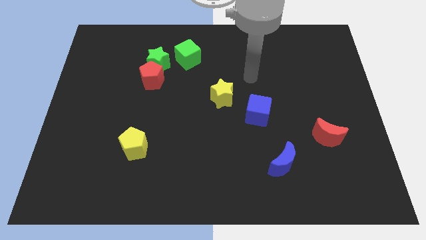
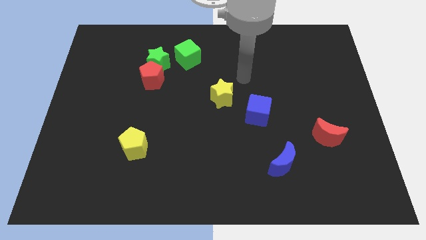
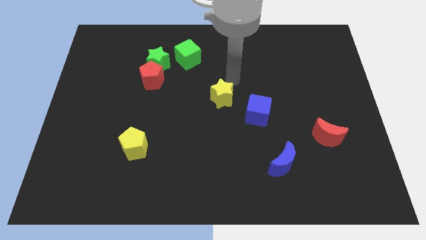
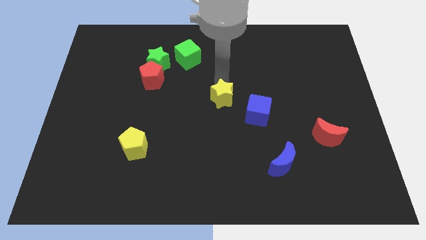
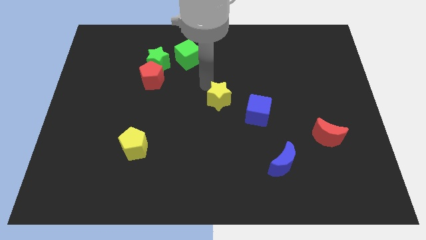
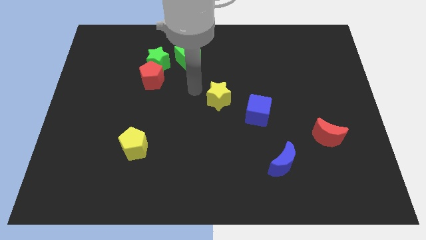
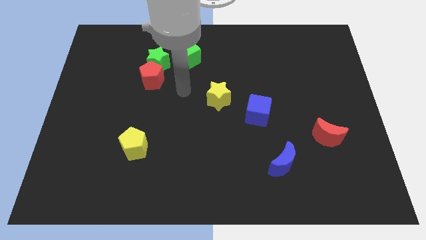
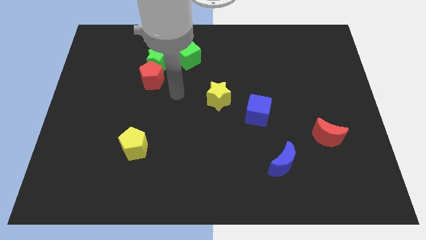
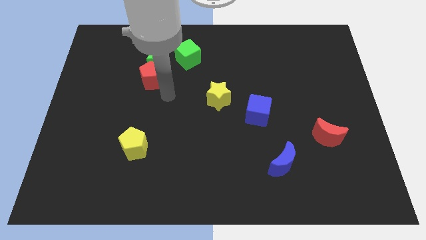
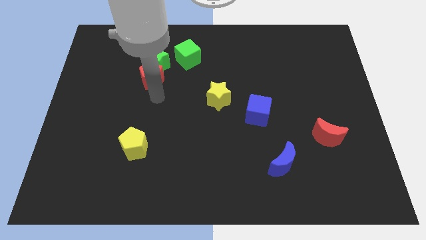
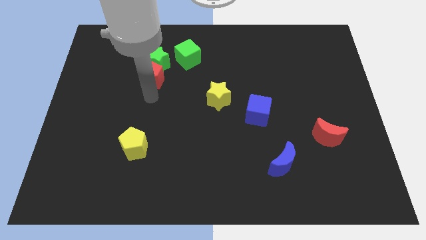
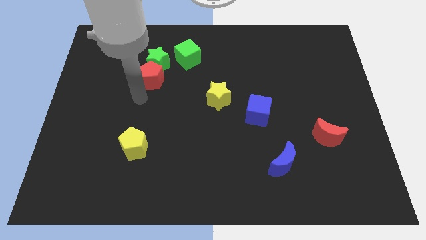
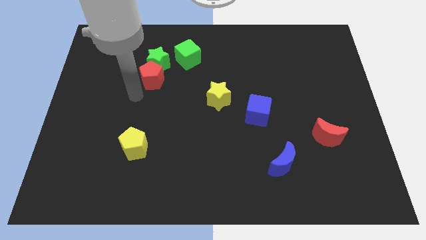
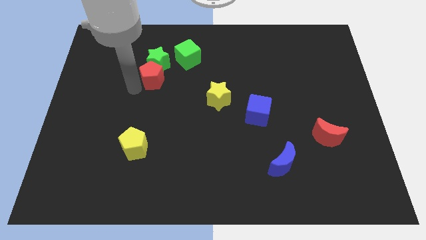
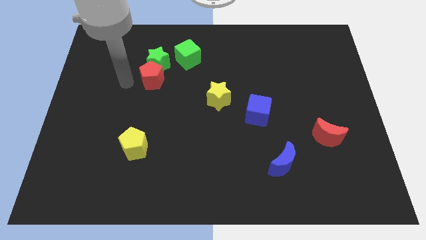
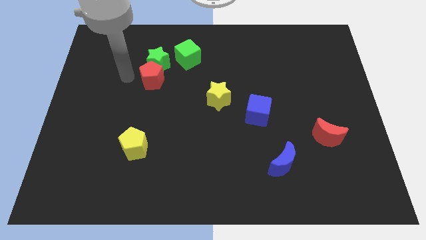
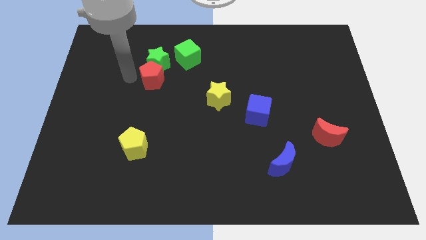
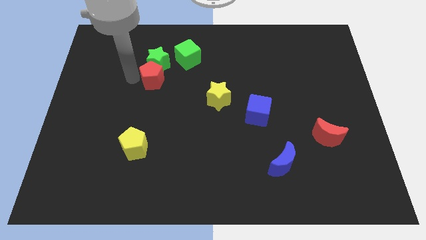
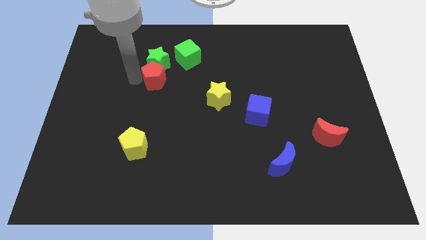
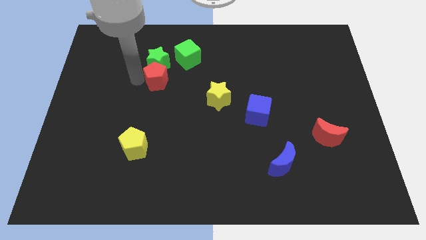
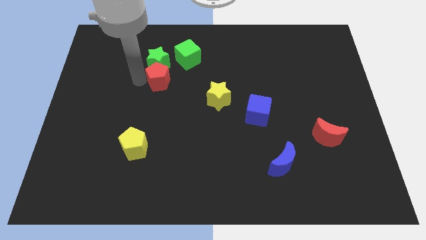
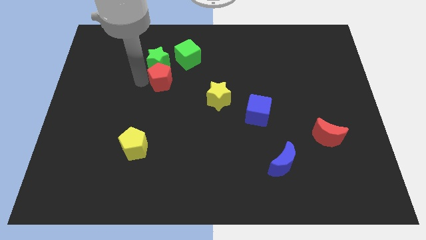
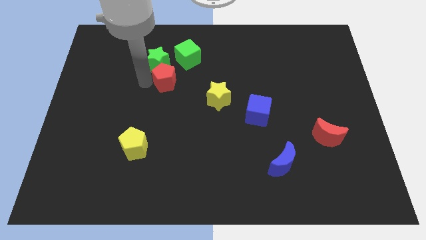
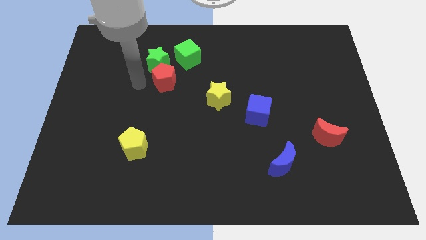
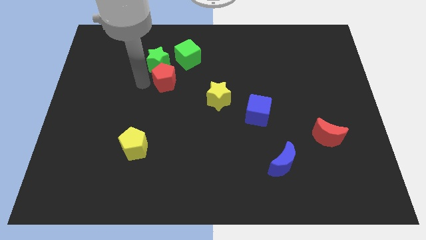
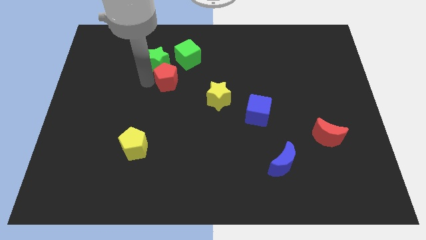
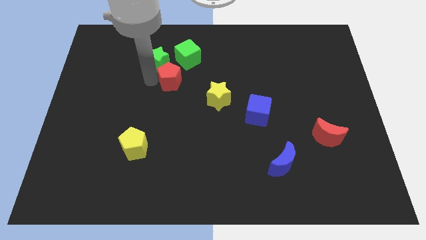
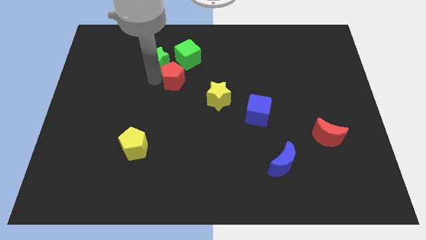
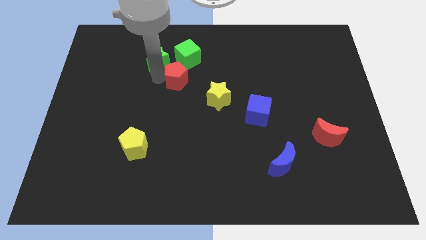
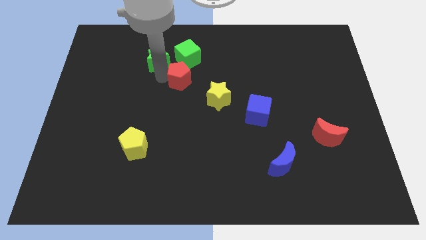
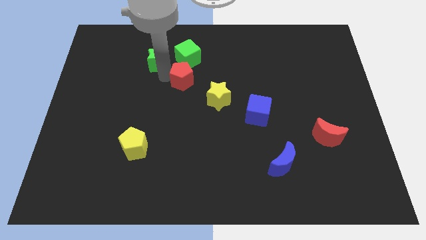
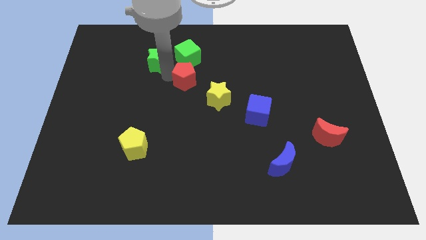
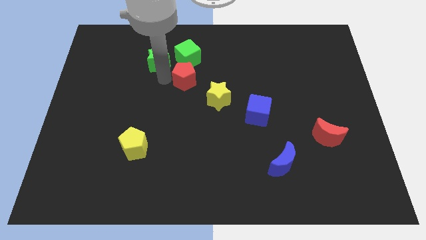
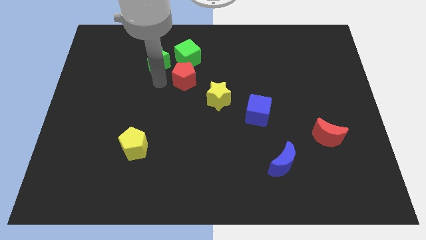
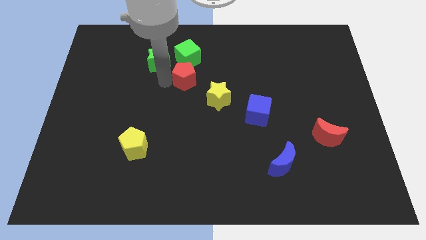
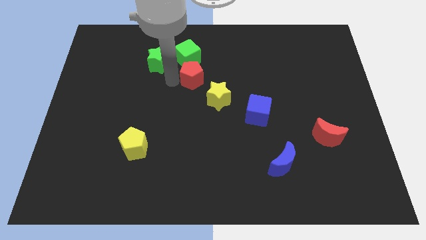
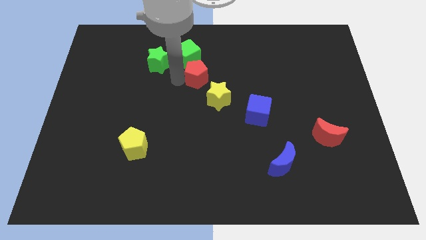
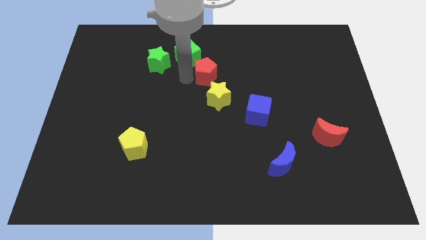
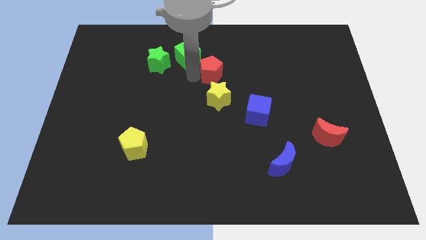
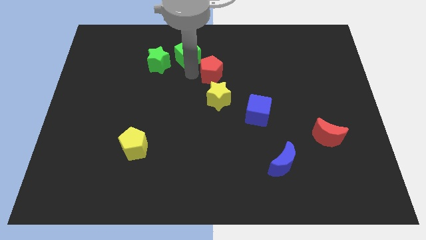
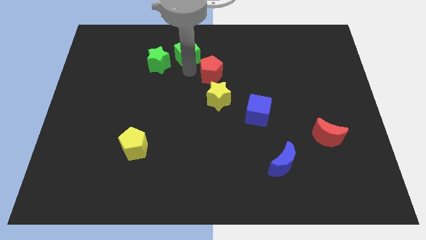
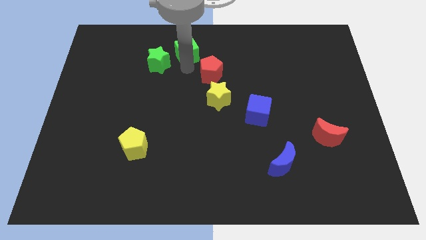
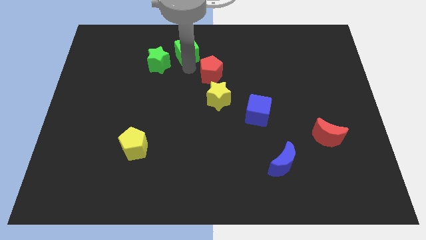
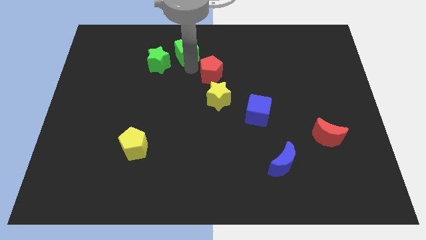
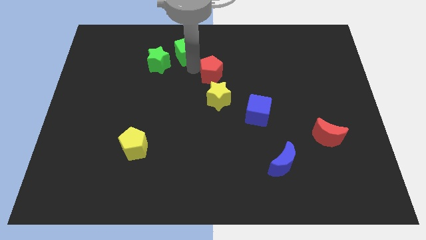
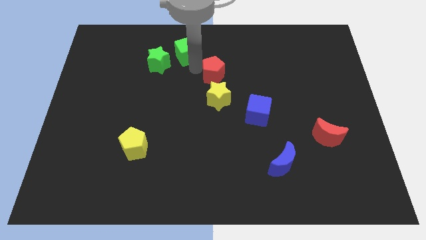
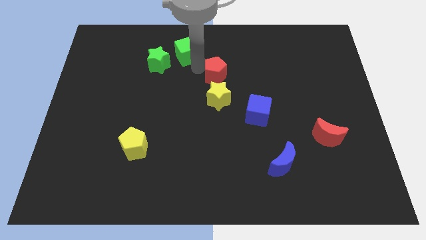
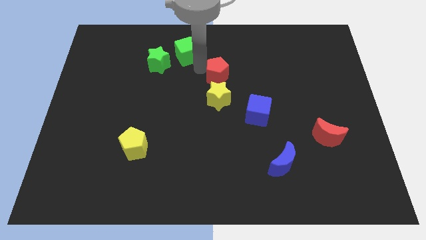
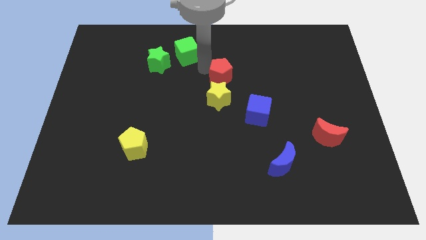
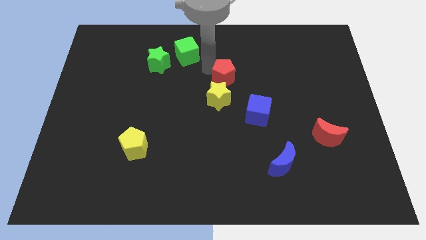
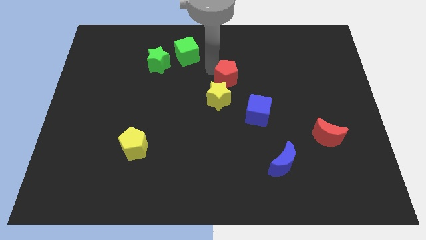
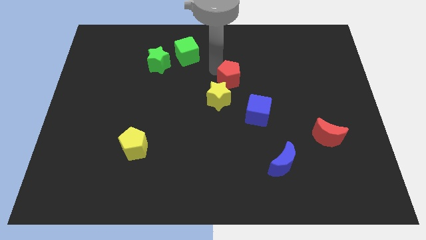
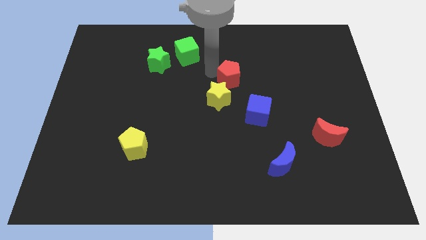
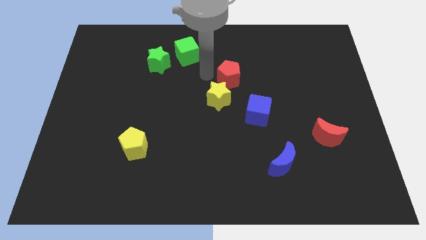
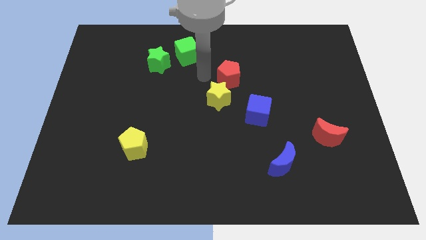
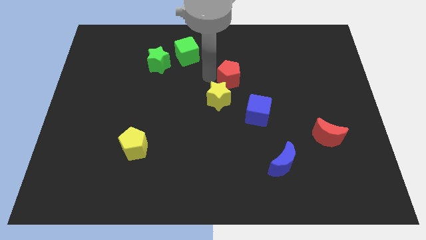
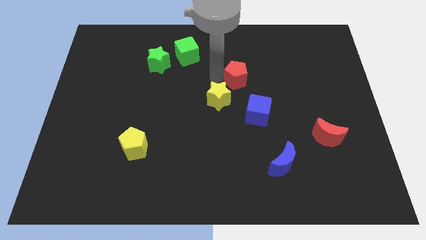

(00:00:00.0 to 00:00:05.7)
move the red pentagon to the right

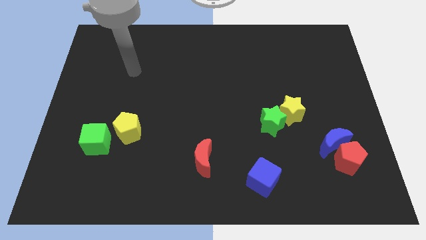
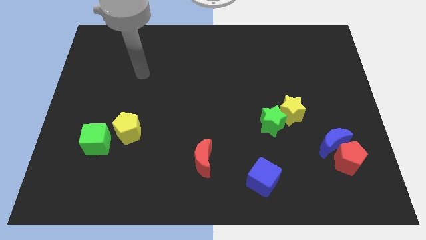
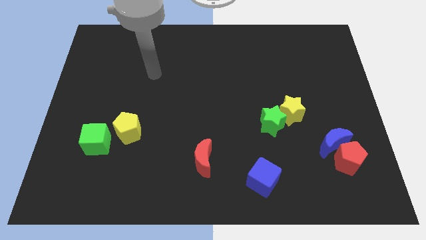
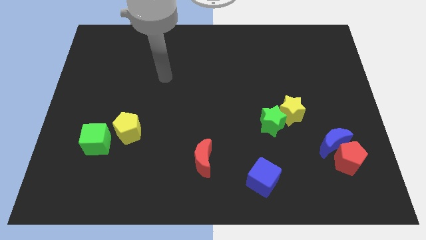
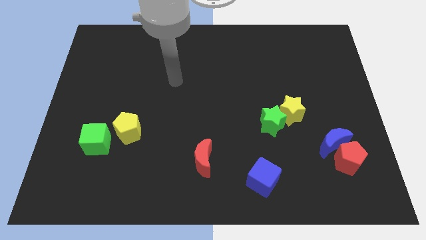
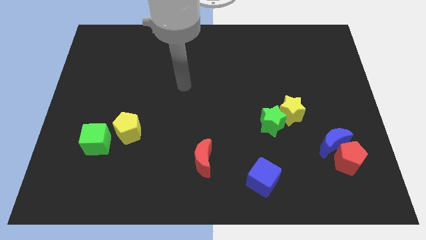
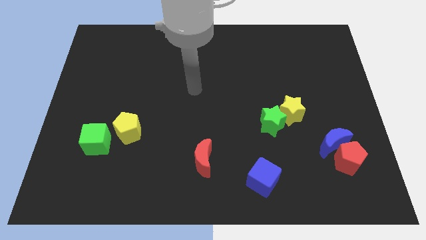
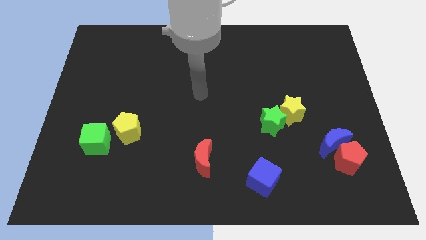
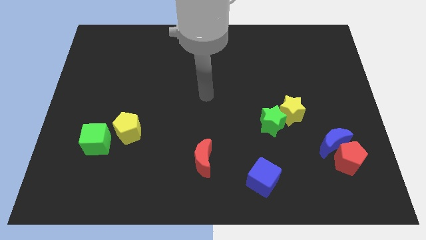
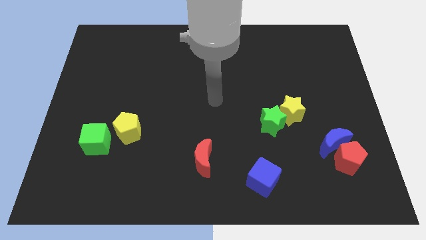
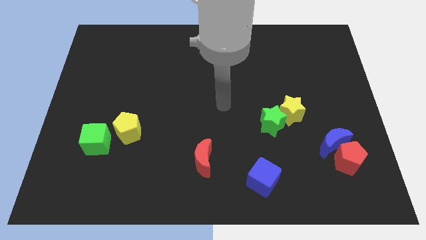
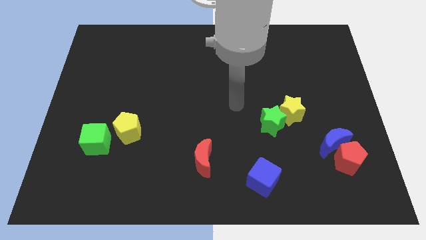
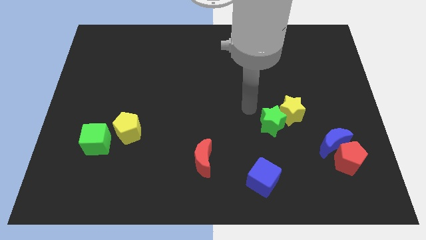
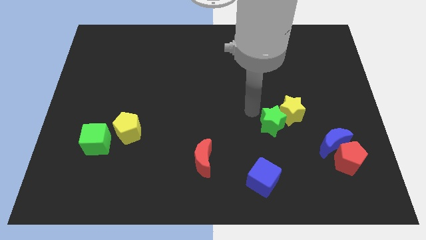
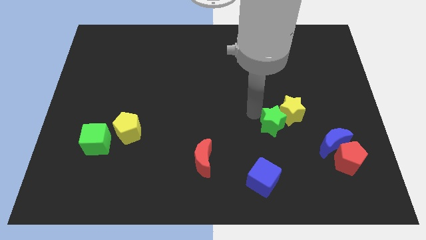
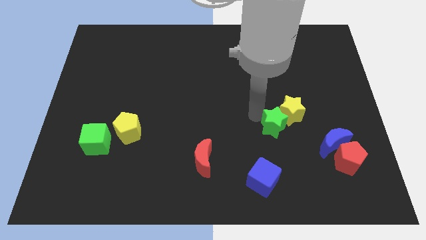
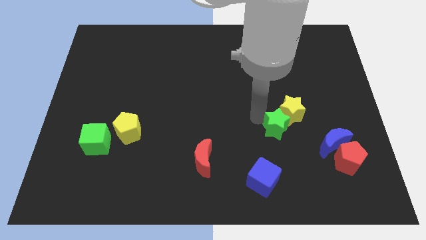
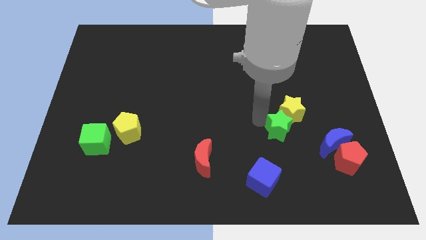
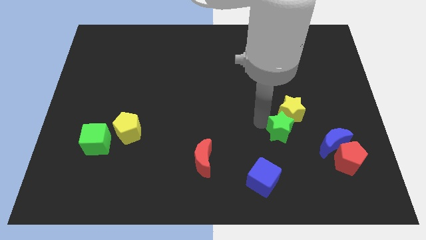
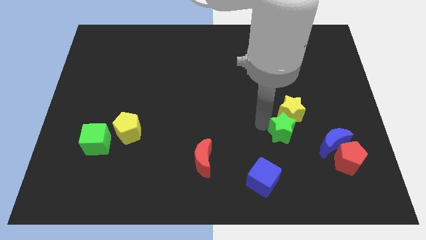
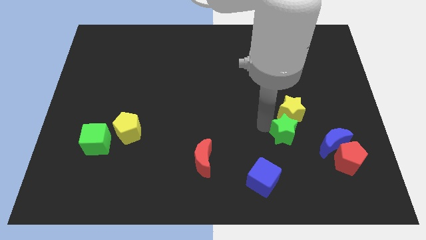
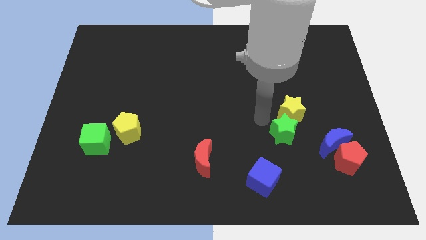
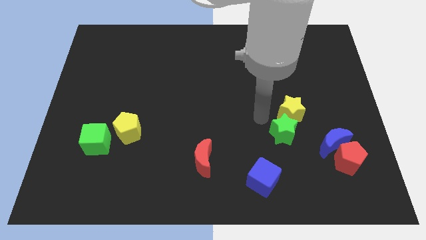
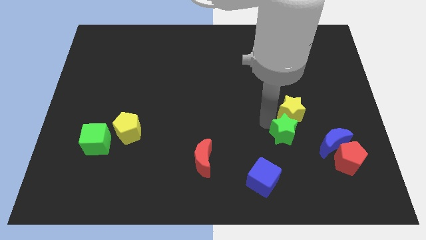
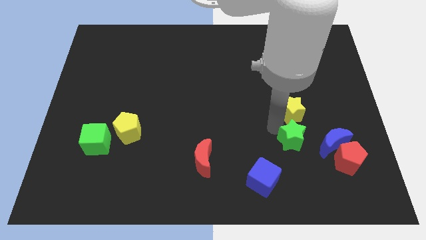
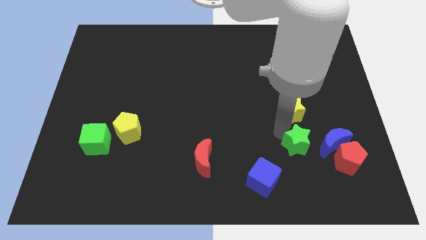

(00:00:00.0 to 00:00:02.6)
slide the green star downwards and to the right a little
